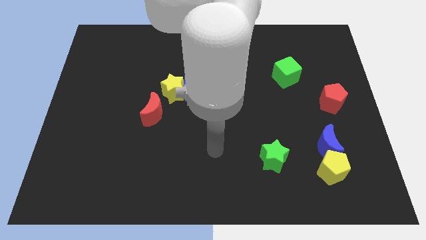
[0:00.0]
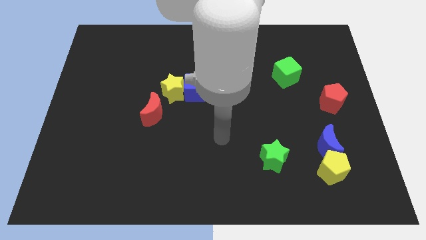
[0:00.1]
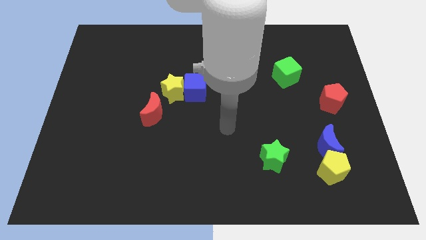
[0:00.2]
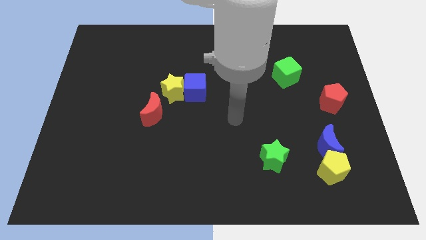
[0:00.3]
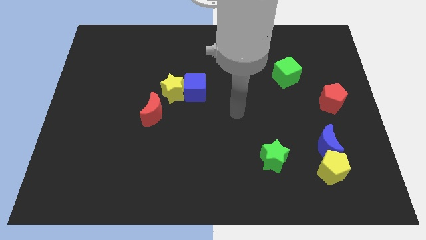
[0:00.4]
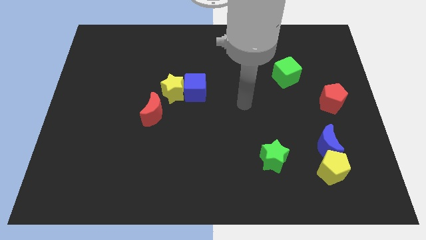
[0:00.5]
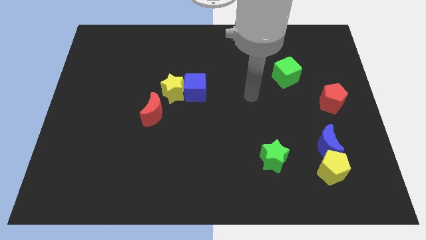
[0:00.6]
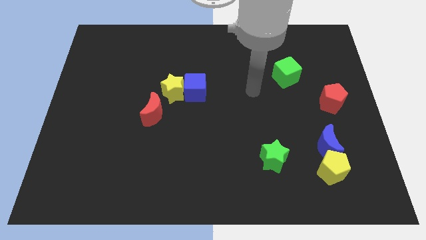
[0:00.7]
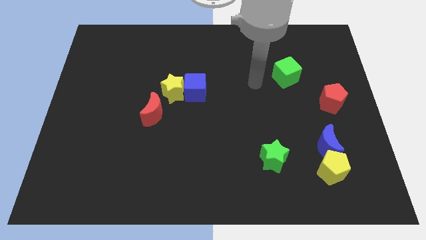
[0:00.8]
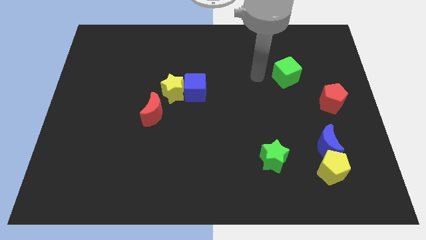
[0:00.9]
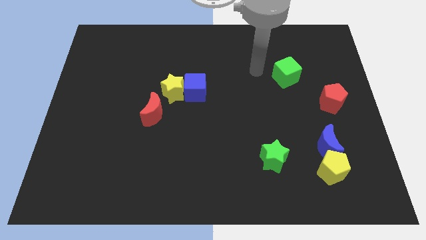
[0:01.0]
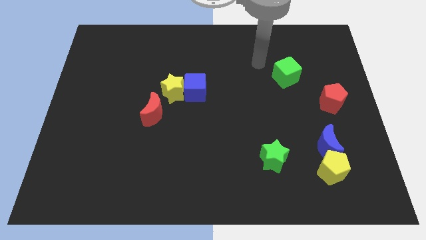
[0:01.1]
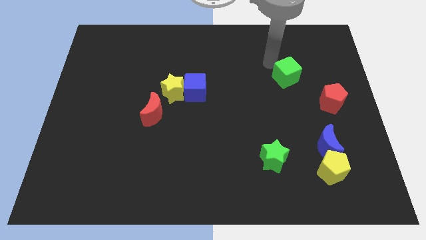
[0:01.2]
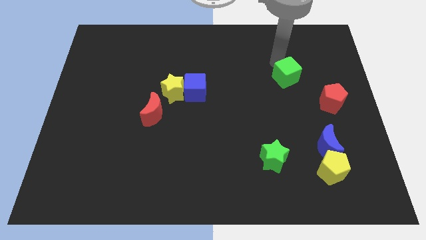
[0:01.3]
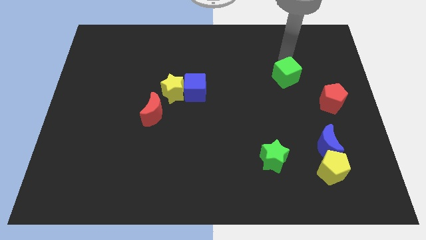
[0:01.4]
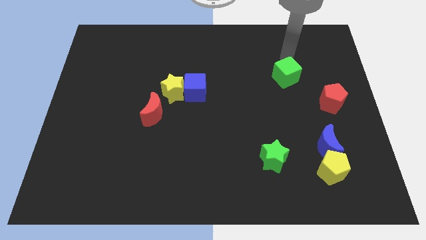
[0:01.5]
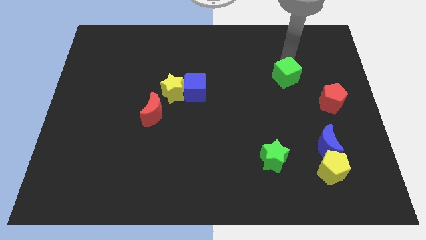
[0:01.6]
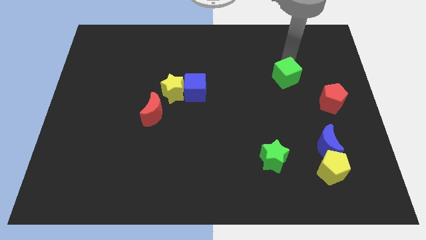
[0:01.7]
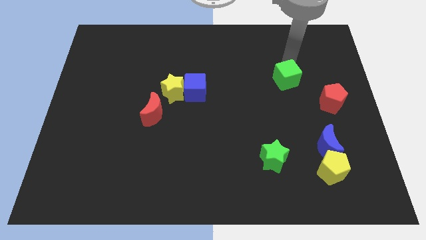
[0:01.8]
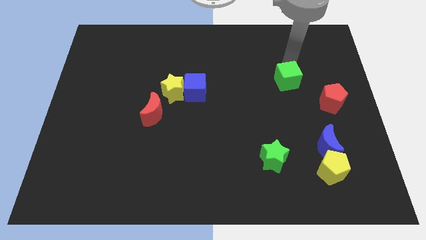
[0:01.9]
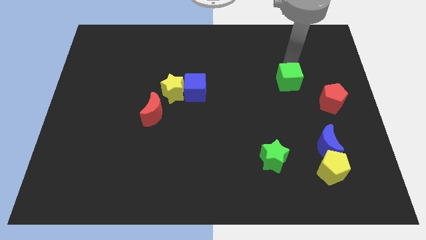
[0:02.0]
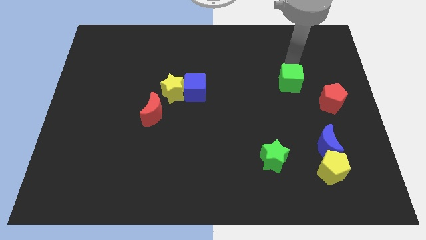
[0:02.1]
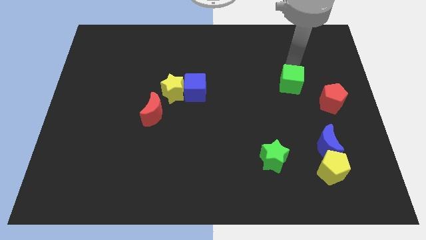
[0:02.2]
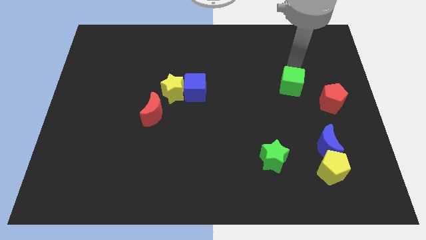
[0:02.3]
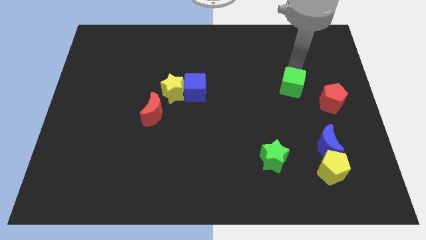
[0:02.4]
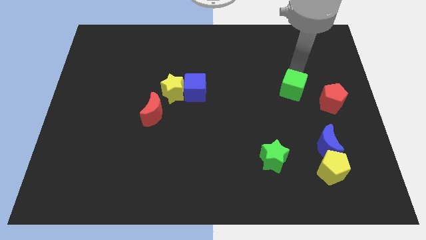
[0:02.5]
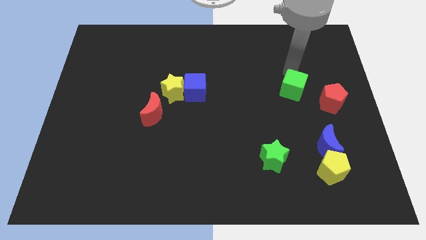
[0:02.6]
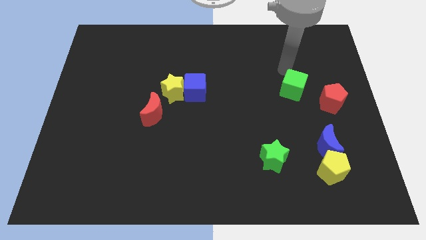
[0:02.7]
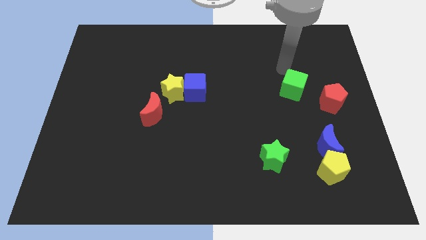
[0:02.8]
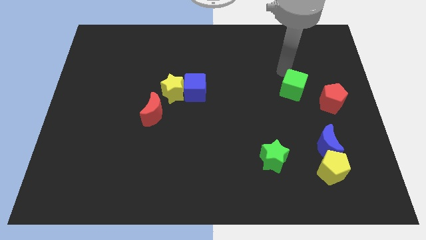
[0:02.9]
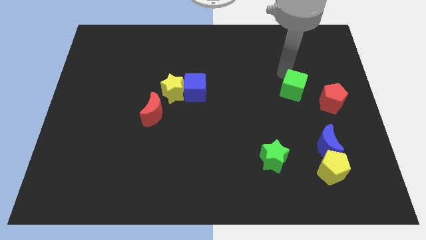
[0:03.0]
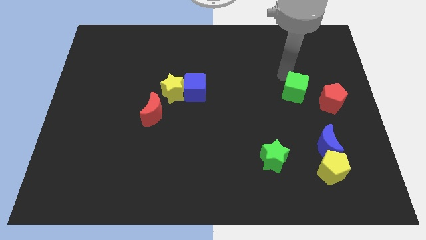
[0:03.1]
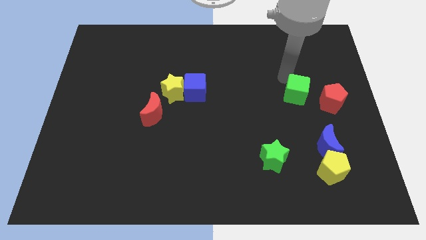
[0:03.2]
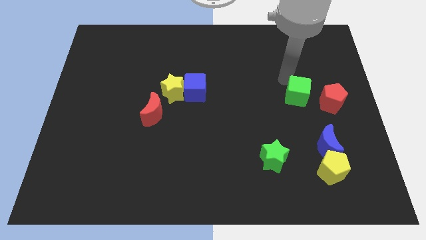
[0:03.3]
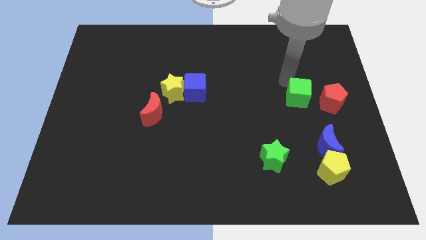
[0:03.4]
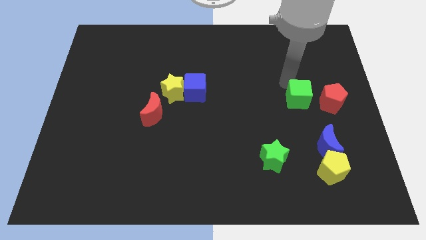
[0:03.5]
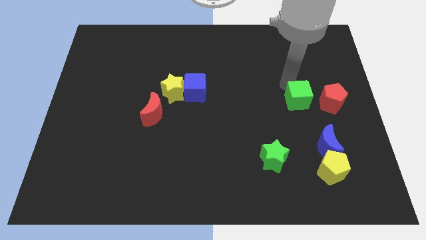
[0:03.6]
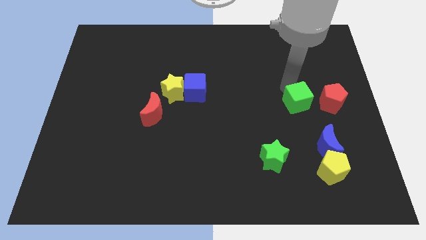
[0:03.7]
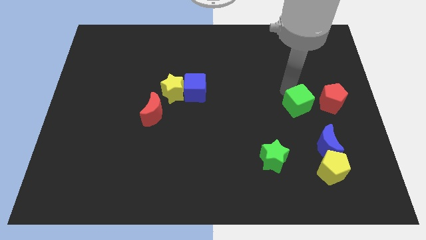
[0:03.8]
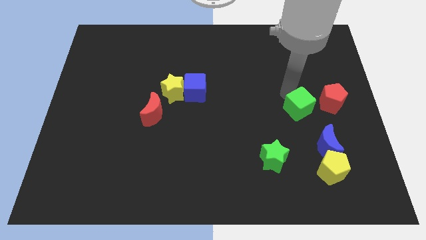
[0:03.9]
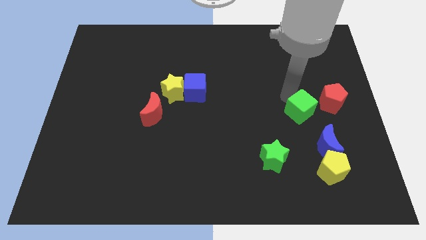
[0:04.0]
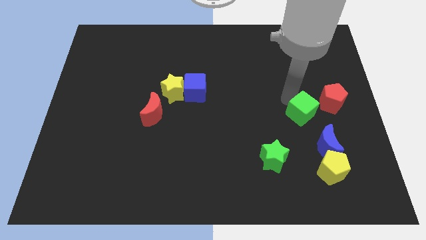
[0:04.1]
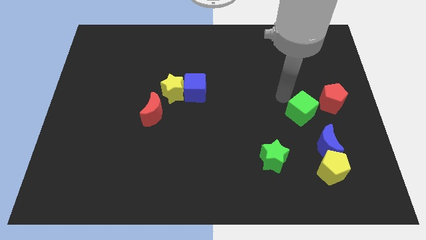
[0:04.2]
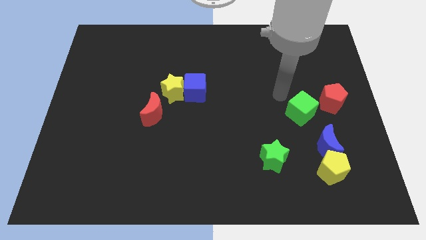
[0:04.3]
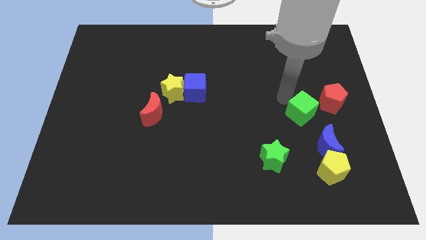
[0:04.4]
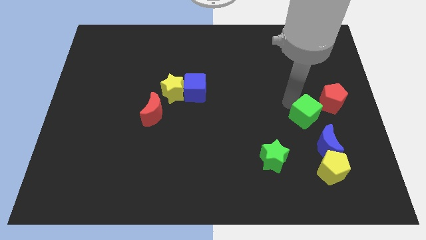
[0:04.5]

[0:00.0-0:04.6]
move the green cube to the top of the yellow pentagon

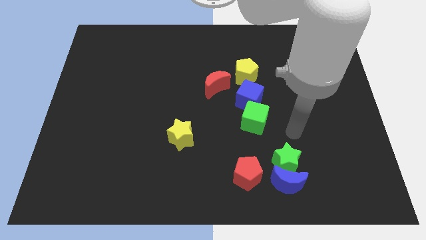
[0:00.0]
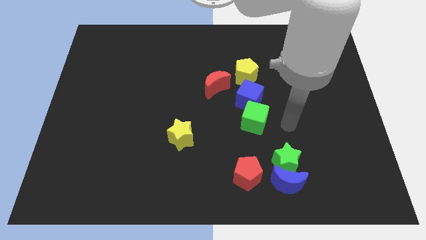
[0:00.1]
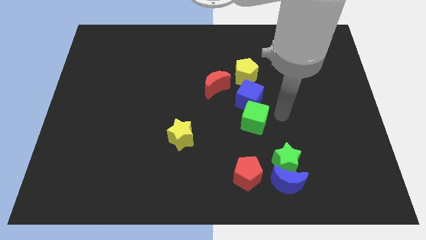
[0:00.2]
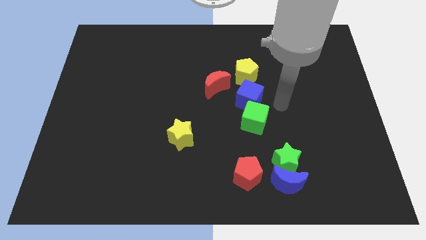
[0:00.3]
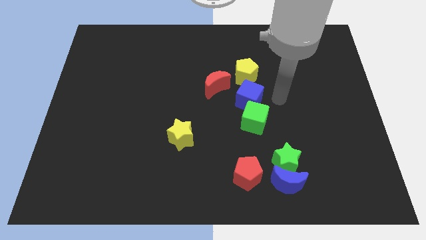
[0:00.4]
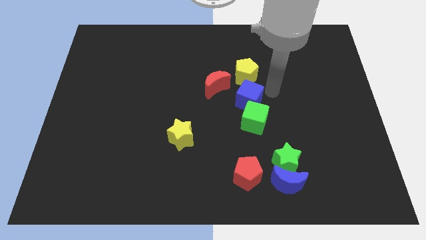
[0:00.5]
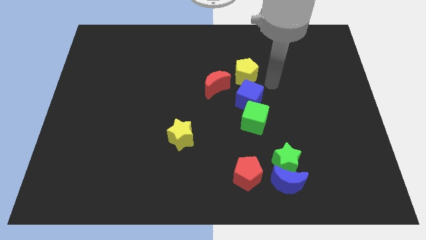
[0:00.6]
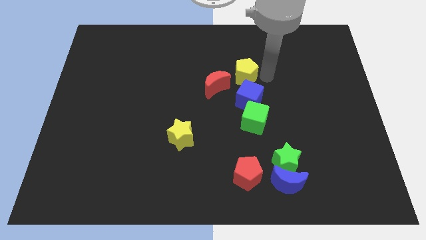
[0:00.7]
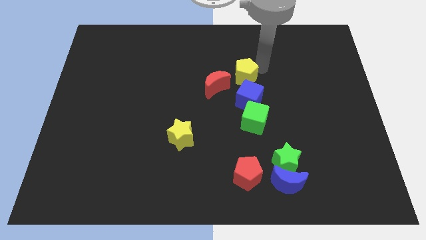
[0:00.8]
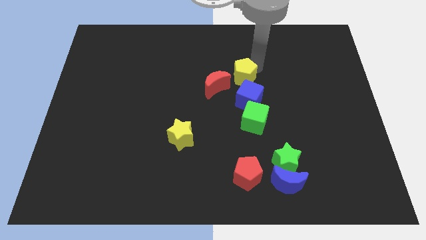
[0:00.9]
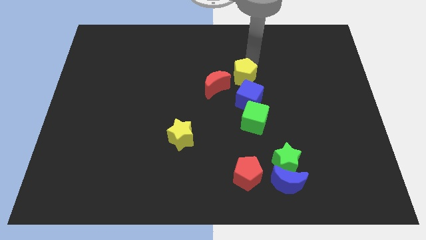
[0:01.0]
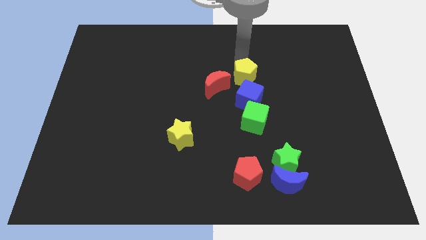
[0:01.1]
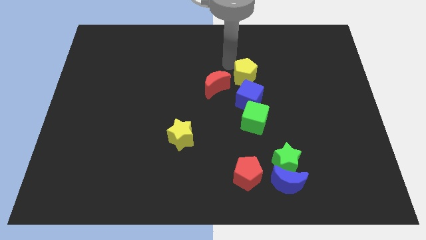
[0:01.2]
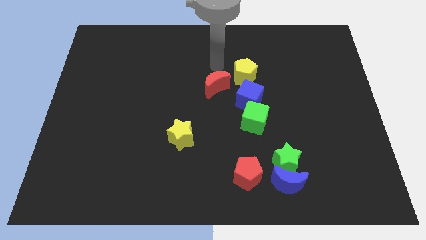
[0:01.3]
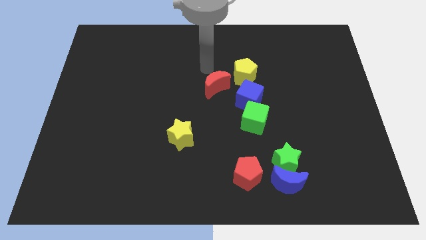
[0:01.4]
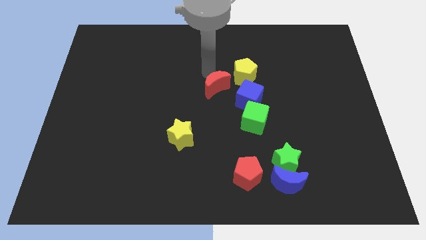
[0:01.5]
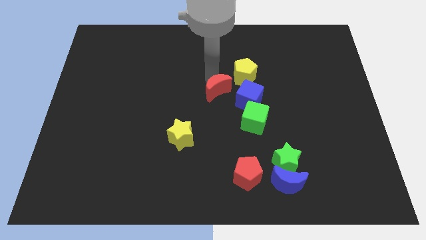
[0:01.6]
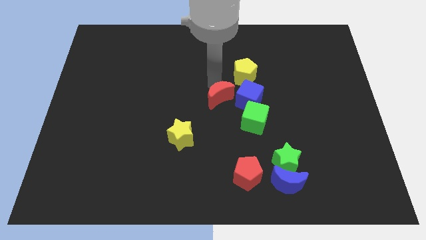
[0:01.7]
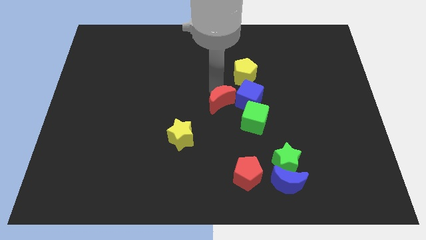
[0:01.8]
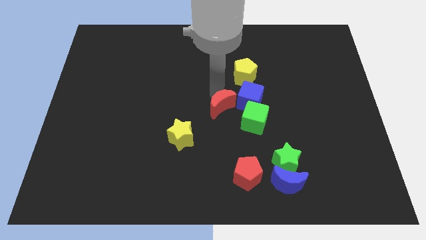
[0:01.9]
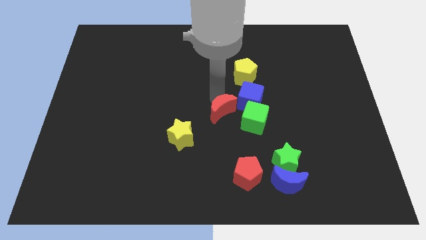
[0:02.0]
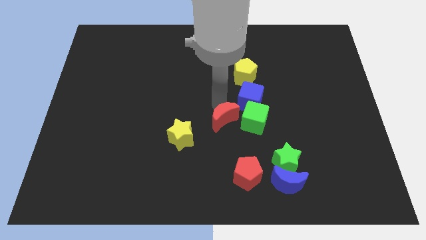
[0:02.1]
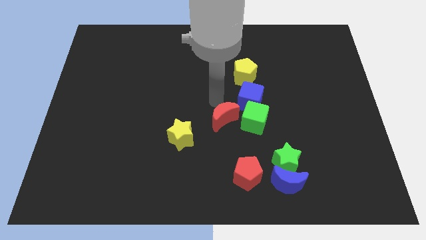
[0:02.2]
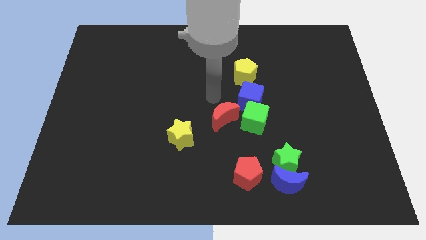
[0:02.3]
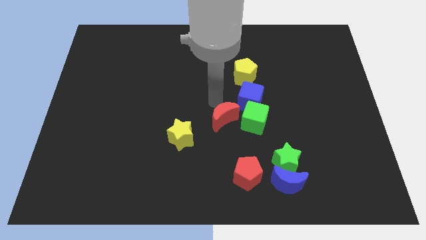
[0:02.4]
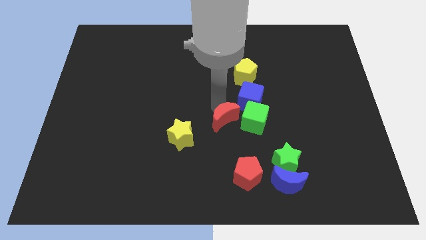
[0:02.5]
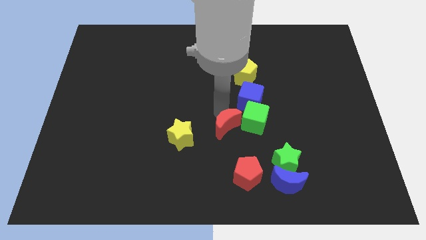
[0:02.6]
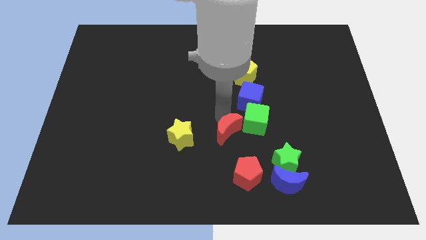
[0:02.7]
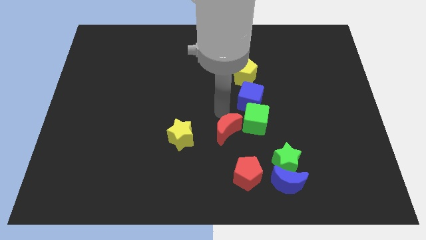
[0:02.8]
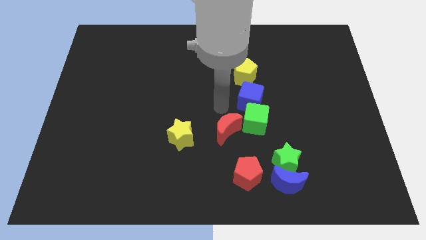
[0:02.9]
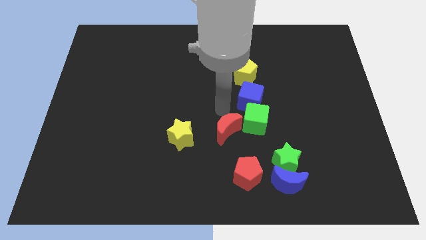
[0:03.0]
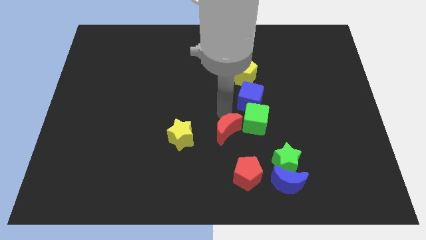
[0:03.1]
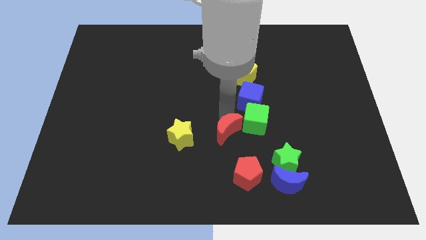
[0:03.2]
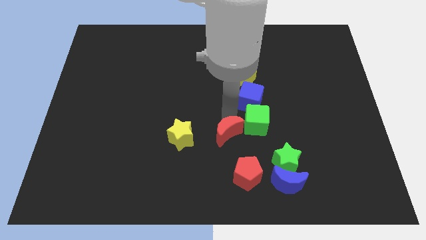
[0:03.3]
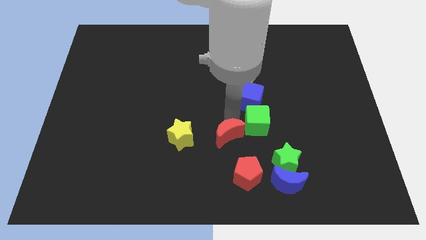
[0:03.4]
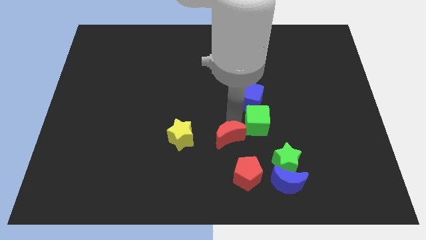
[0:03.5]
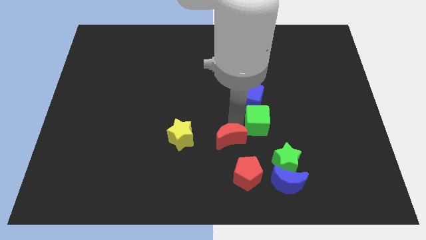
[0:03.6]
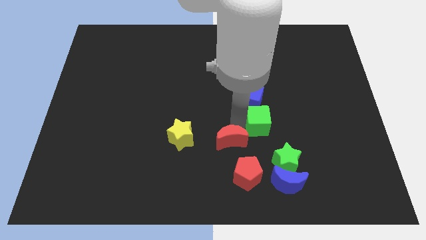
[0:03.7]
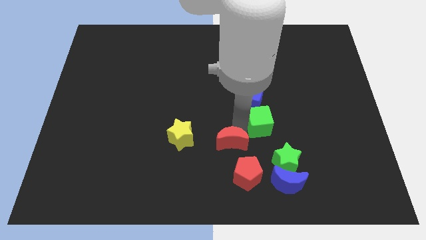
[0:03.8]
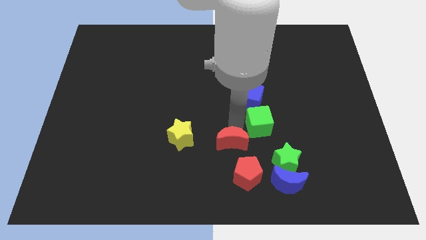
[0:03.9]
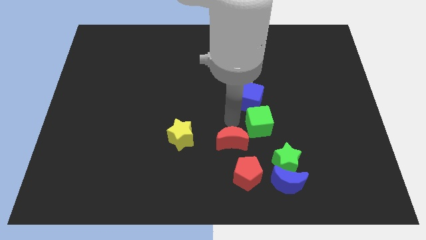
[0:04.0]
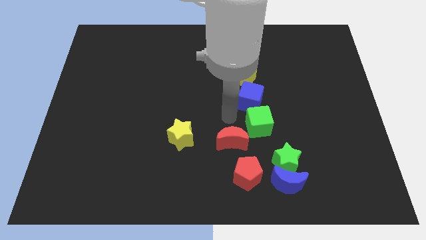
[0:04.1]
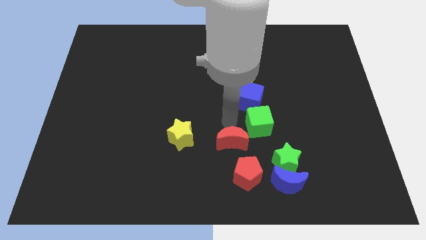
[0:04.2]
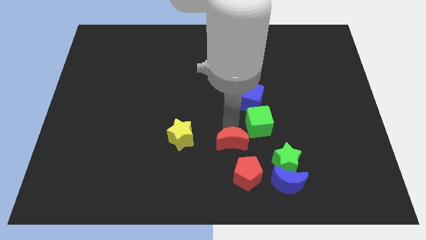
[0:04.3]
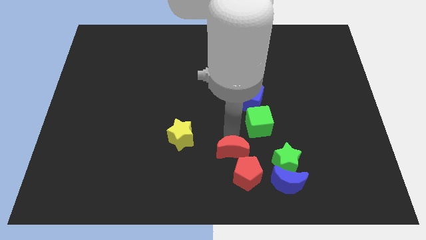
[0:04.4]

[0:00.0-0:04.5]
slide the red moon to the left of the green star
